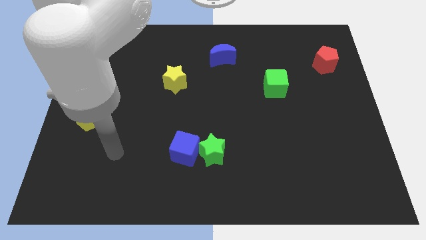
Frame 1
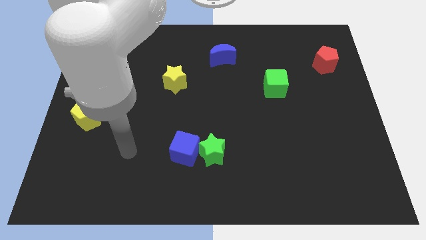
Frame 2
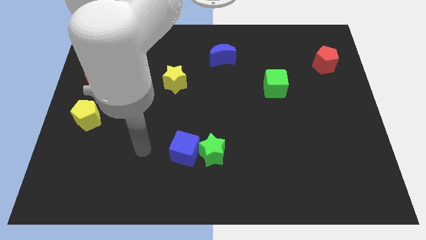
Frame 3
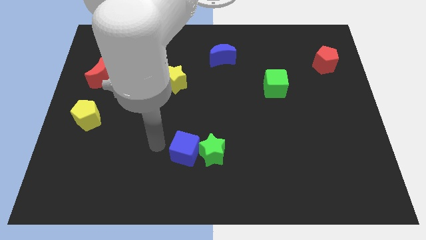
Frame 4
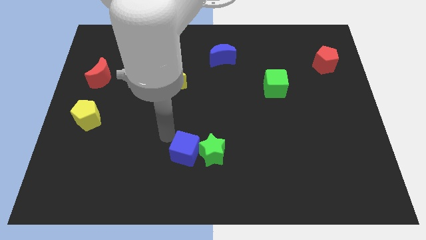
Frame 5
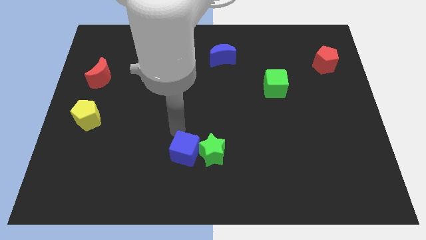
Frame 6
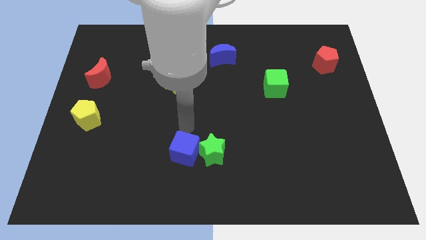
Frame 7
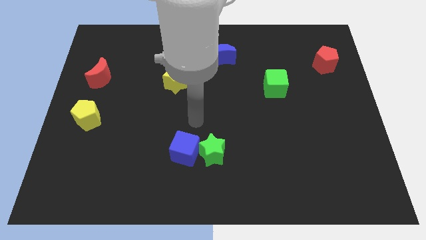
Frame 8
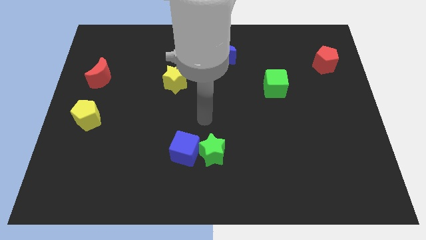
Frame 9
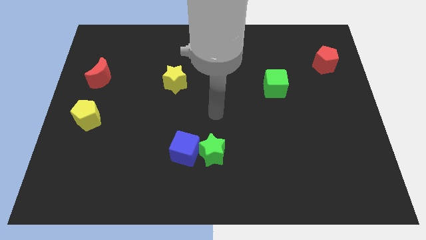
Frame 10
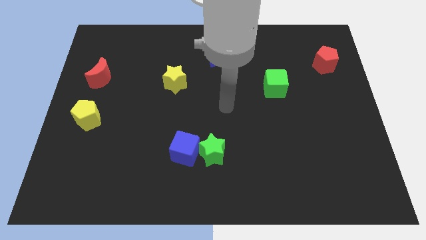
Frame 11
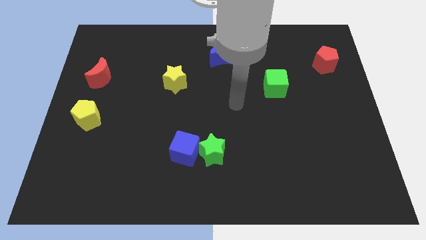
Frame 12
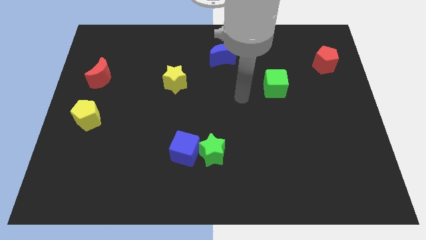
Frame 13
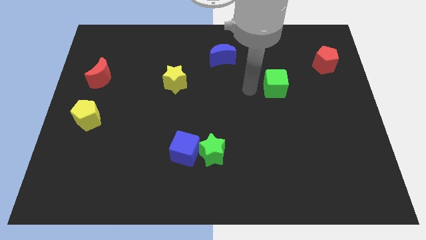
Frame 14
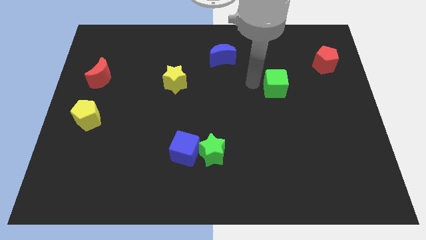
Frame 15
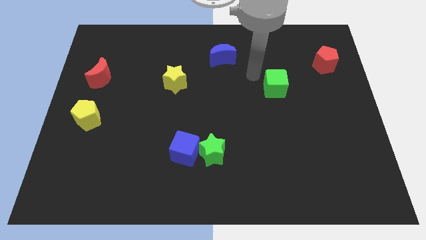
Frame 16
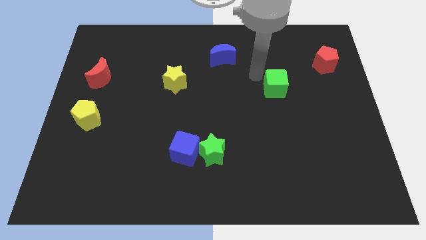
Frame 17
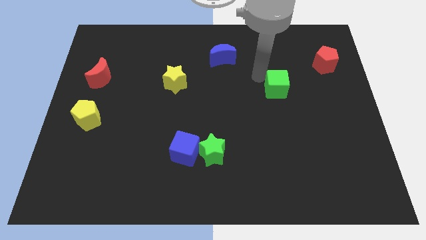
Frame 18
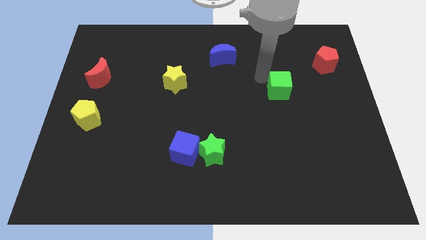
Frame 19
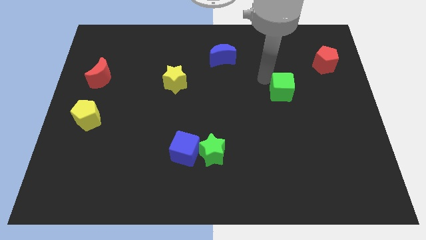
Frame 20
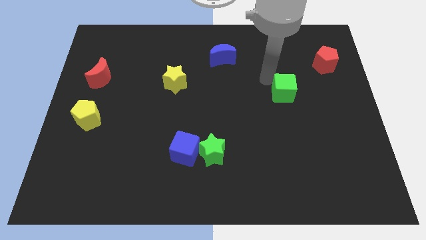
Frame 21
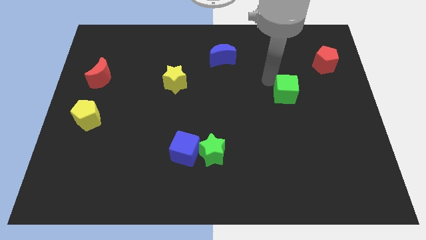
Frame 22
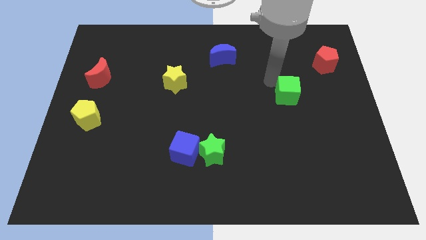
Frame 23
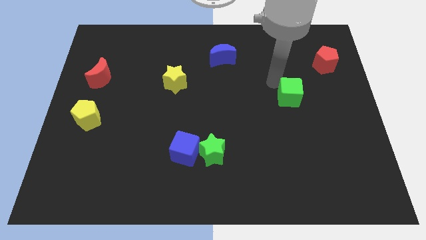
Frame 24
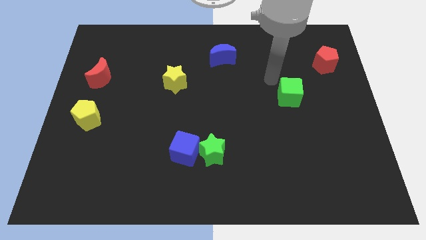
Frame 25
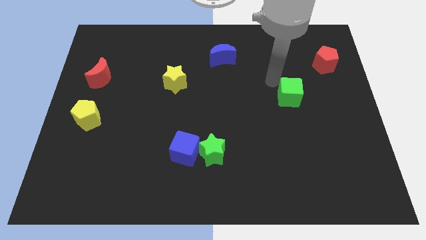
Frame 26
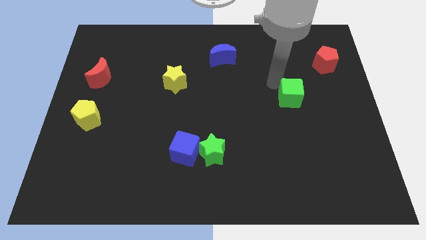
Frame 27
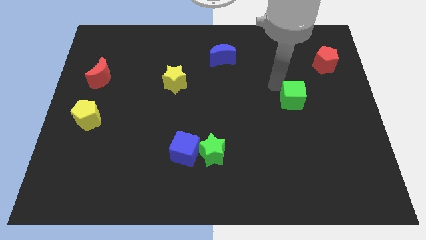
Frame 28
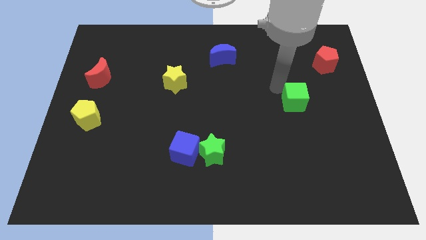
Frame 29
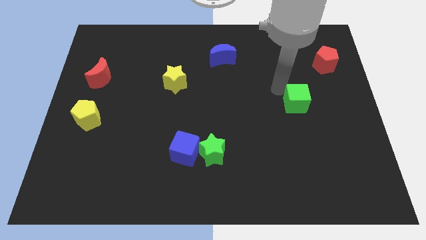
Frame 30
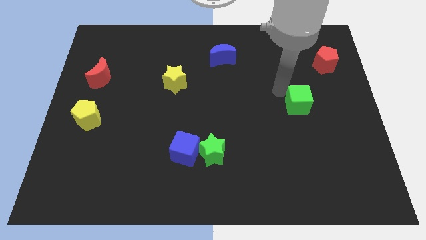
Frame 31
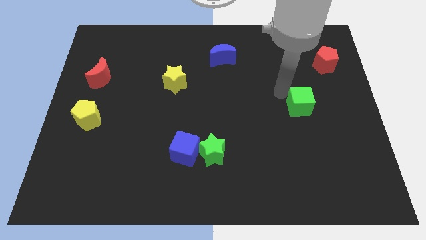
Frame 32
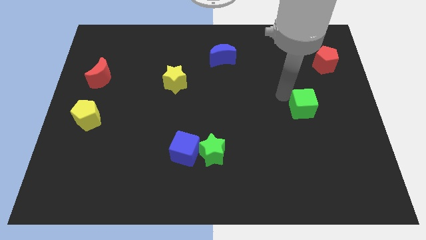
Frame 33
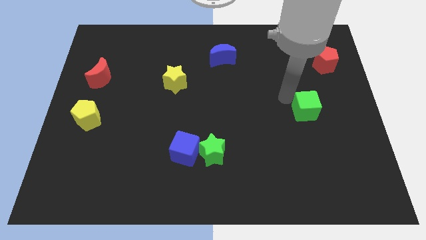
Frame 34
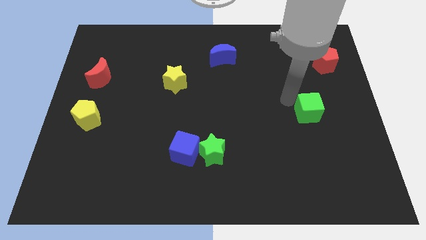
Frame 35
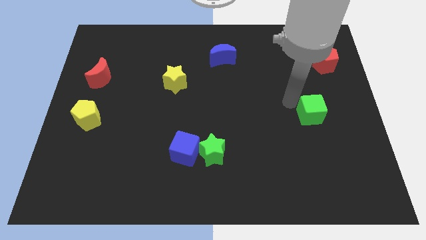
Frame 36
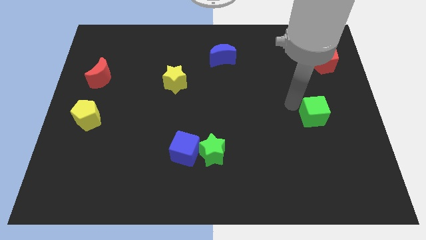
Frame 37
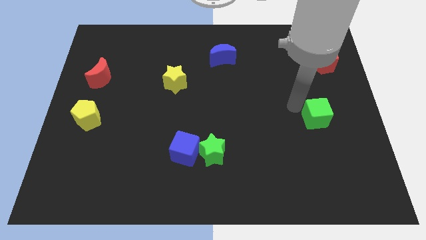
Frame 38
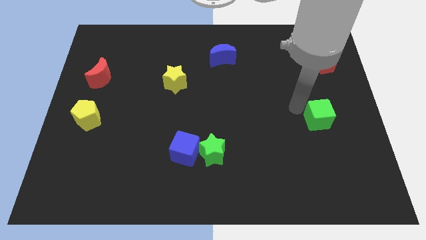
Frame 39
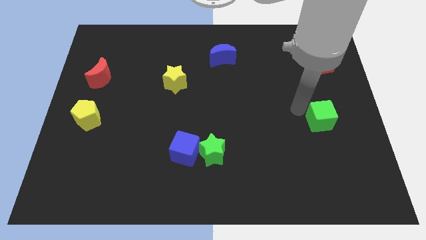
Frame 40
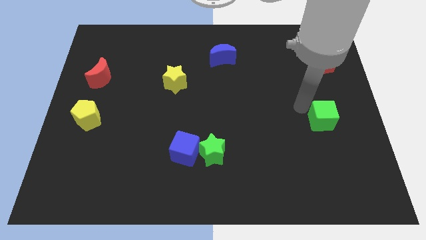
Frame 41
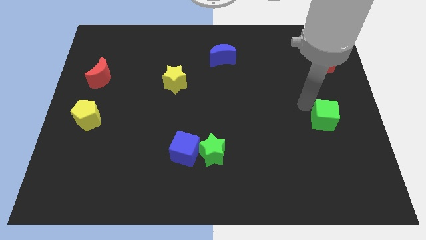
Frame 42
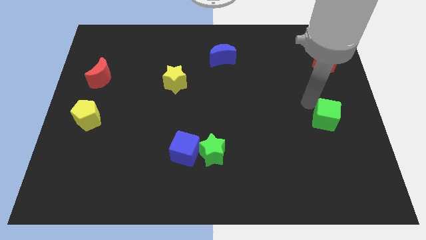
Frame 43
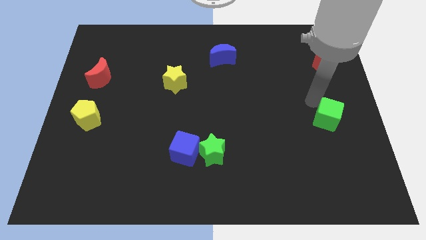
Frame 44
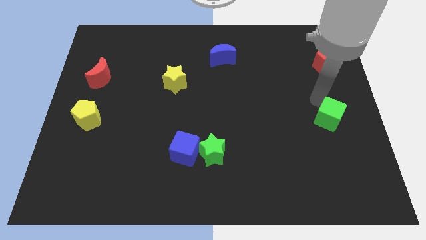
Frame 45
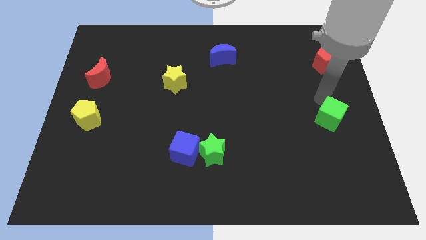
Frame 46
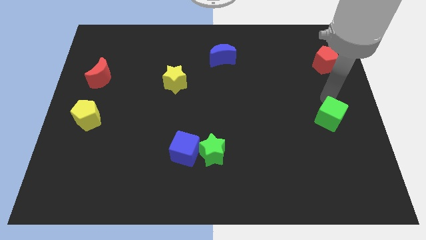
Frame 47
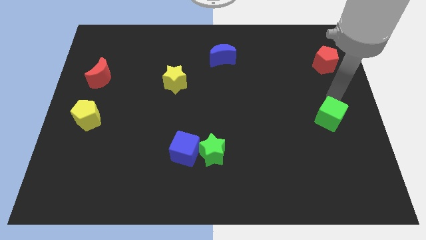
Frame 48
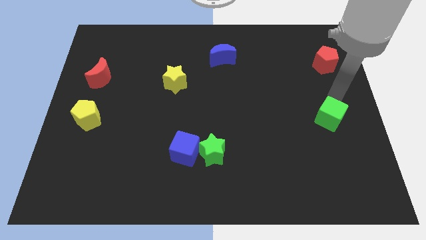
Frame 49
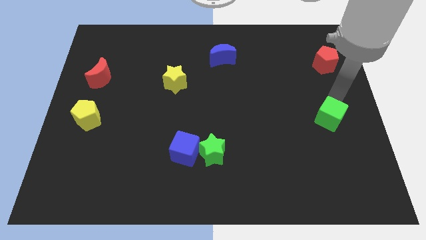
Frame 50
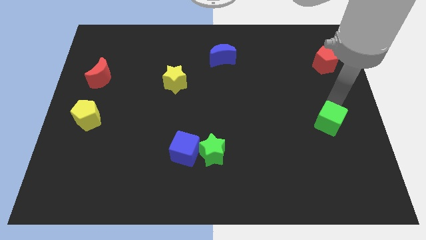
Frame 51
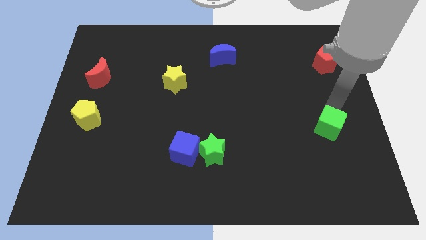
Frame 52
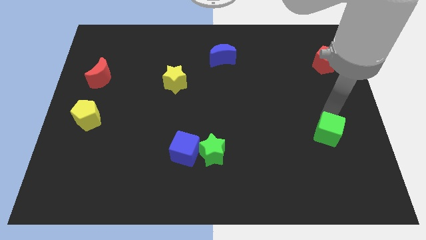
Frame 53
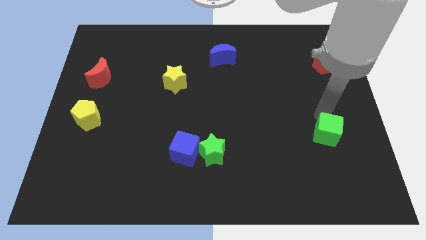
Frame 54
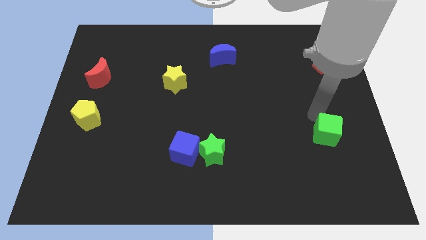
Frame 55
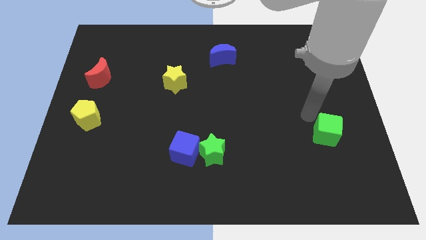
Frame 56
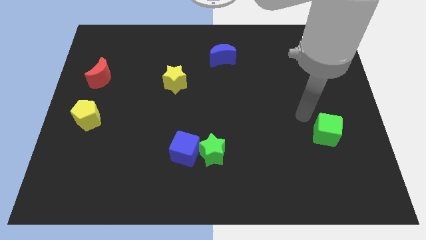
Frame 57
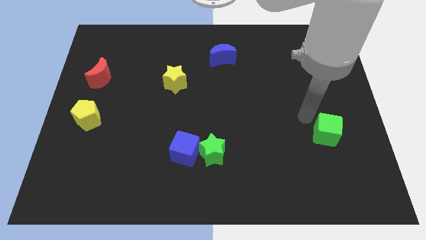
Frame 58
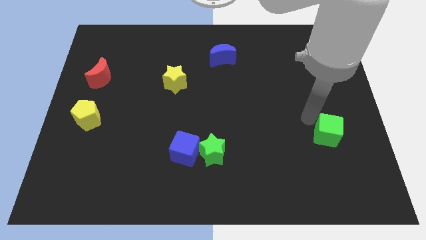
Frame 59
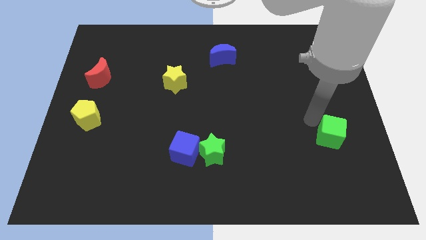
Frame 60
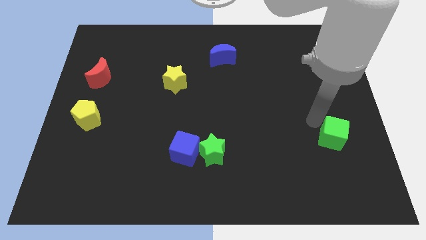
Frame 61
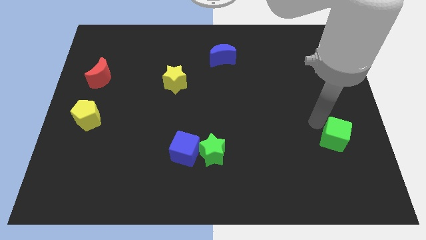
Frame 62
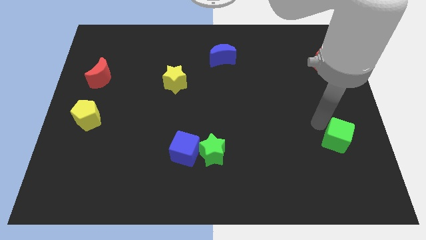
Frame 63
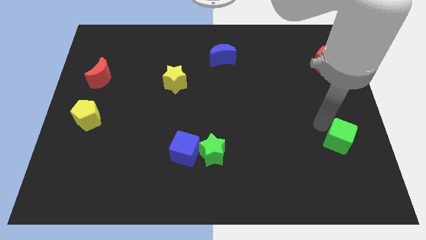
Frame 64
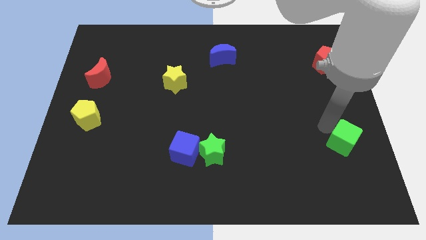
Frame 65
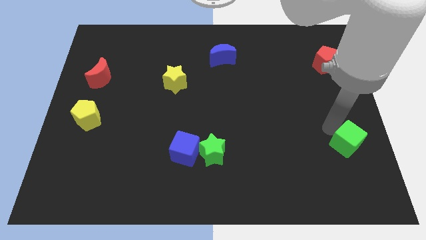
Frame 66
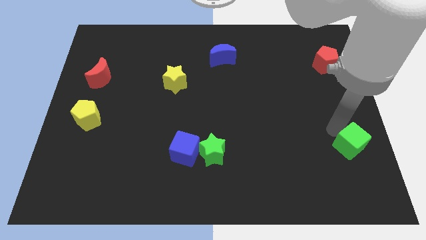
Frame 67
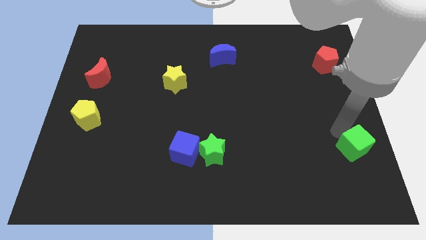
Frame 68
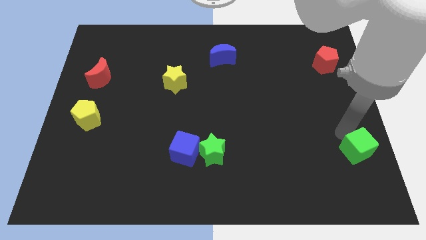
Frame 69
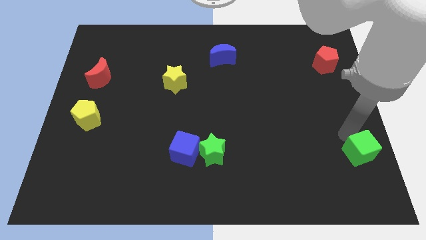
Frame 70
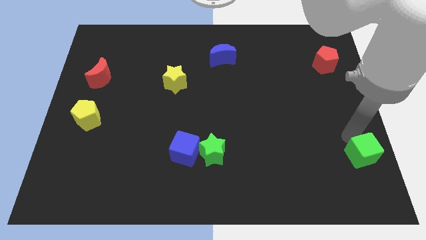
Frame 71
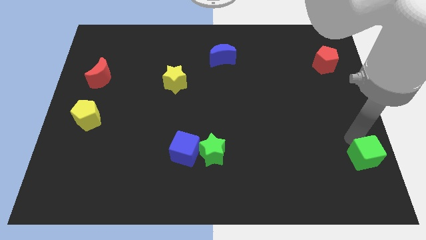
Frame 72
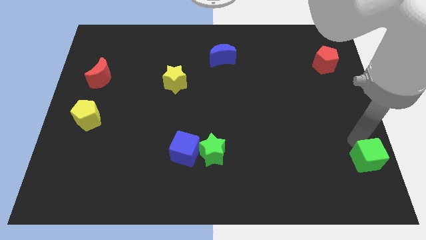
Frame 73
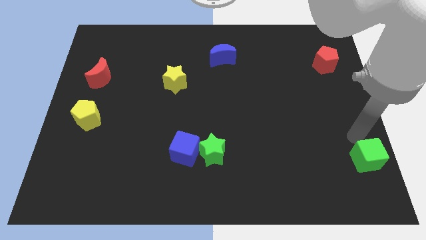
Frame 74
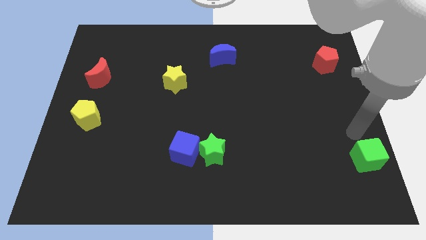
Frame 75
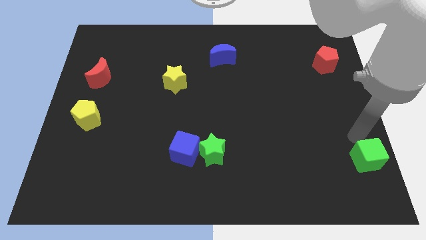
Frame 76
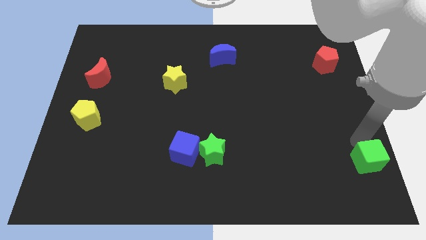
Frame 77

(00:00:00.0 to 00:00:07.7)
move the green cube to the lower right corner

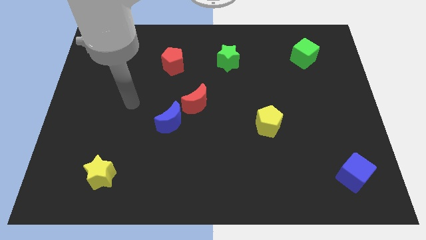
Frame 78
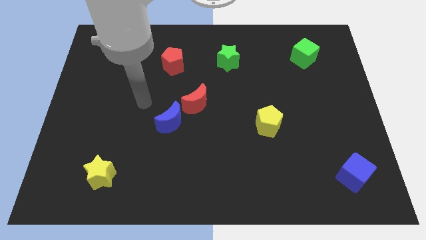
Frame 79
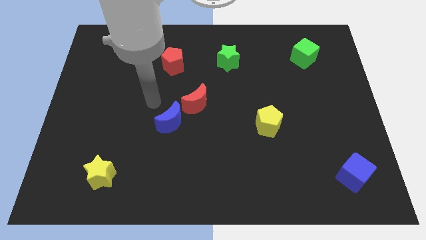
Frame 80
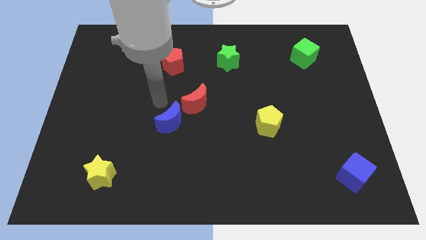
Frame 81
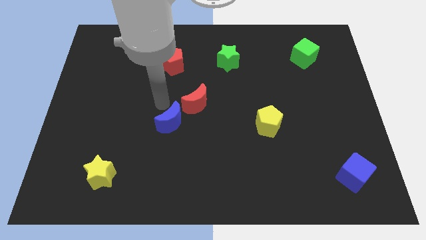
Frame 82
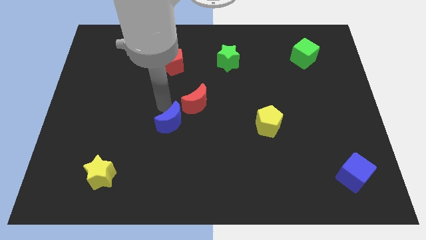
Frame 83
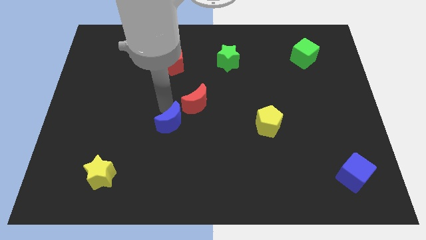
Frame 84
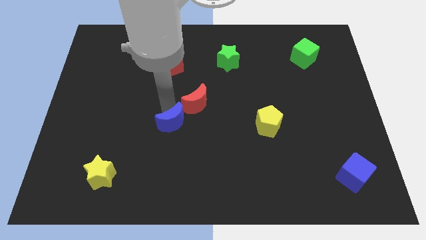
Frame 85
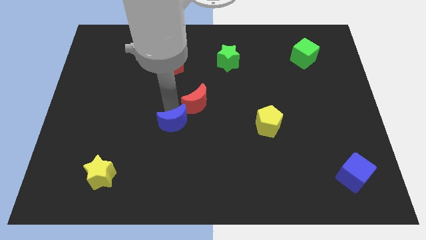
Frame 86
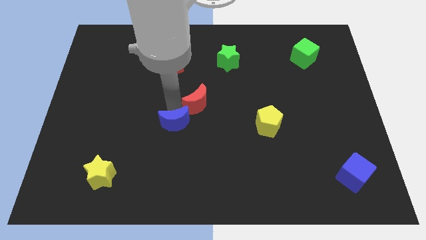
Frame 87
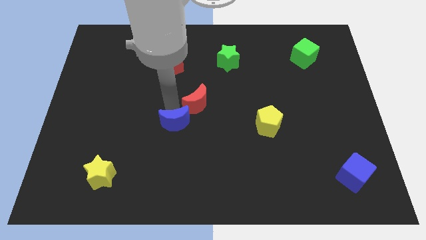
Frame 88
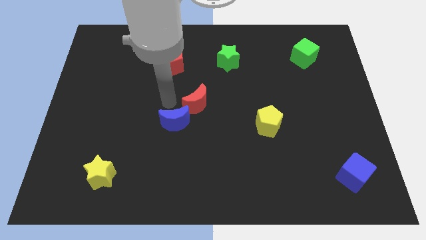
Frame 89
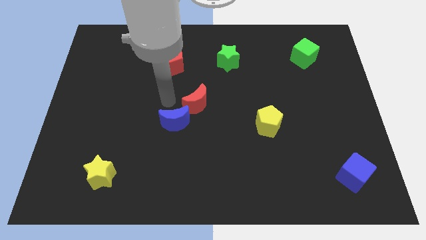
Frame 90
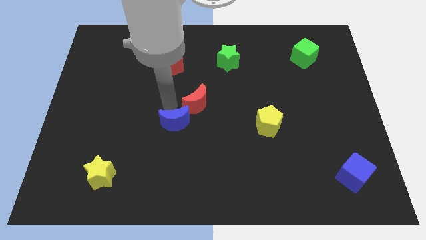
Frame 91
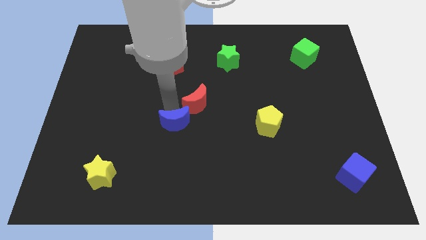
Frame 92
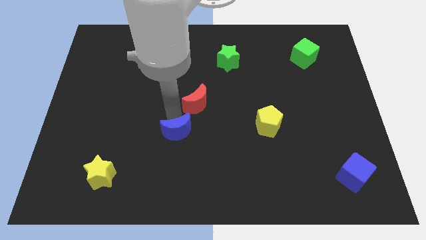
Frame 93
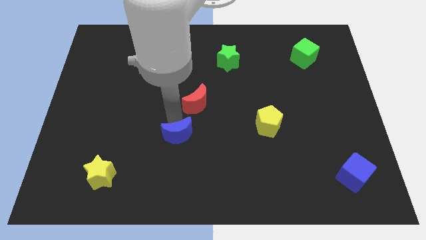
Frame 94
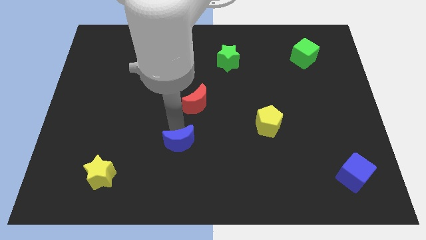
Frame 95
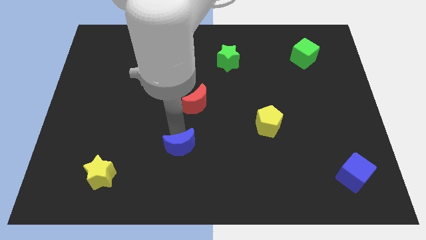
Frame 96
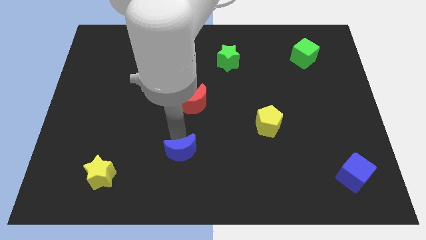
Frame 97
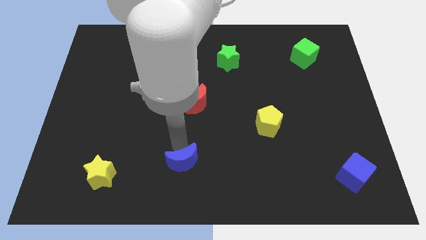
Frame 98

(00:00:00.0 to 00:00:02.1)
put the blue moon to the bottom side
